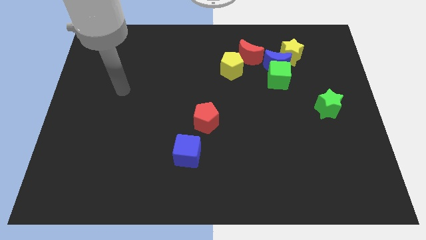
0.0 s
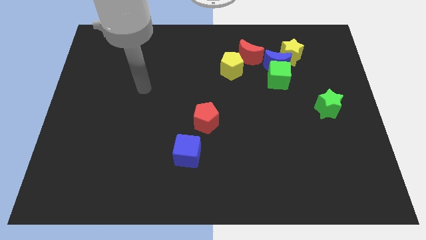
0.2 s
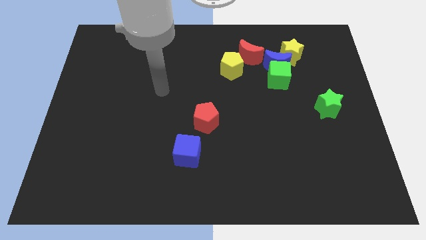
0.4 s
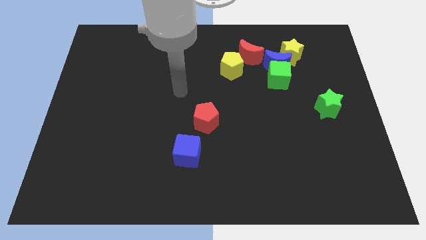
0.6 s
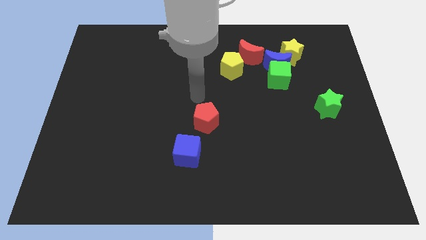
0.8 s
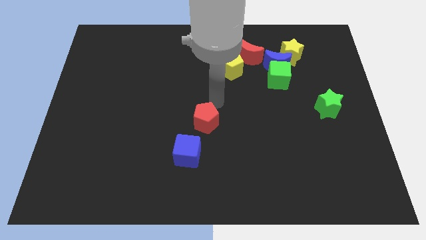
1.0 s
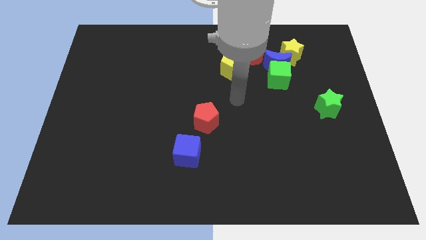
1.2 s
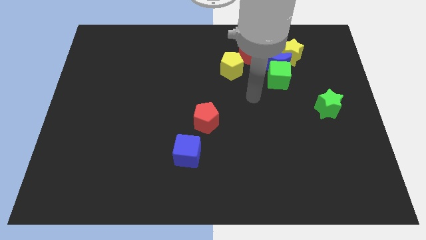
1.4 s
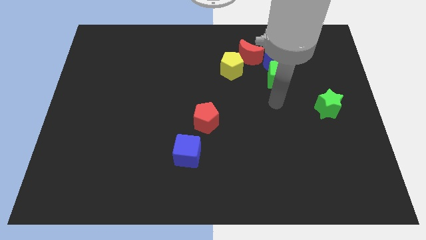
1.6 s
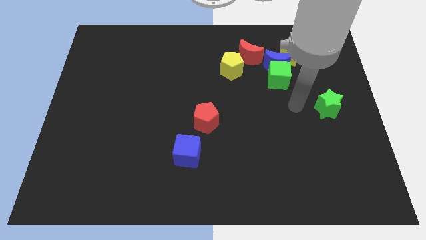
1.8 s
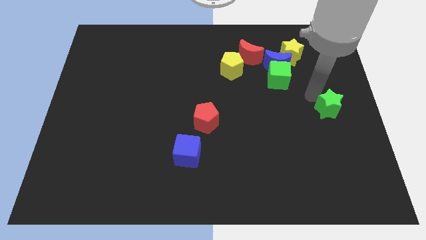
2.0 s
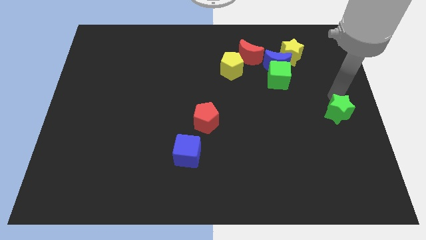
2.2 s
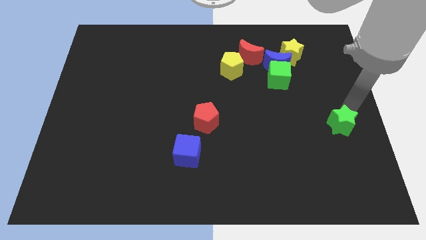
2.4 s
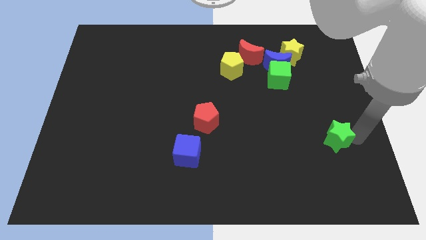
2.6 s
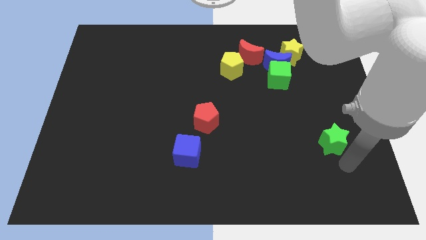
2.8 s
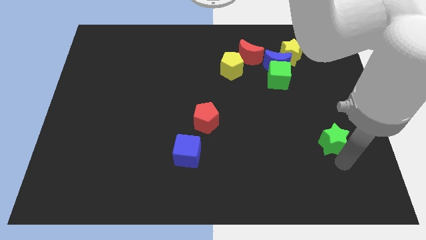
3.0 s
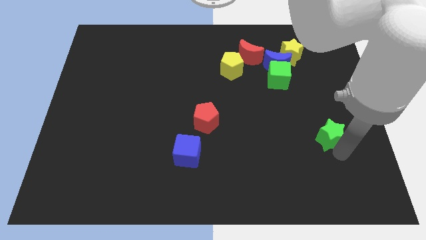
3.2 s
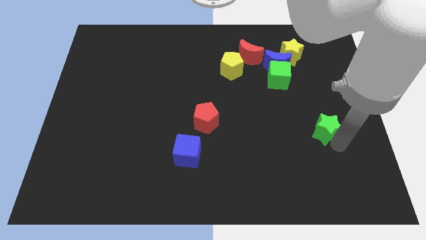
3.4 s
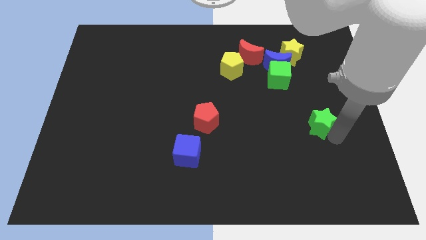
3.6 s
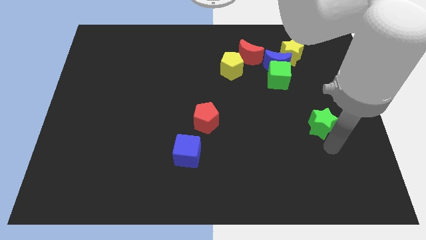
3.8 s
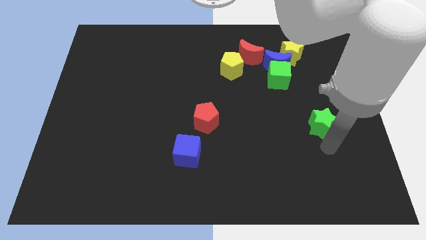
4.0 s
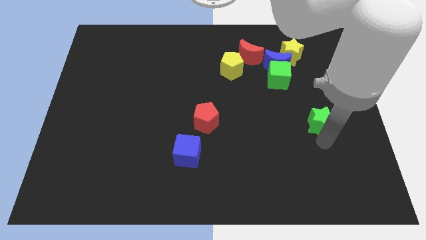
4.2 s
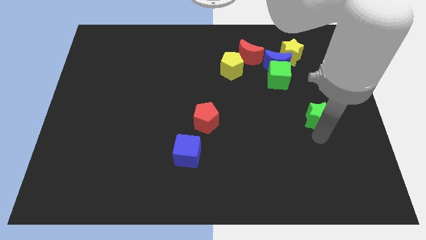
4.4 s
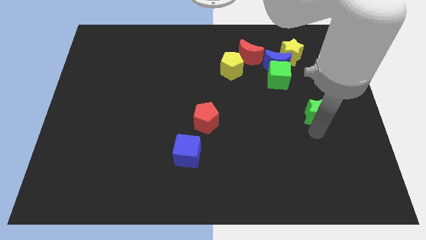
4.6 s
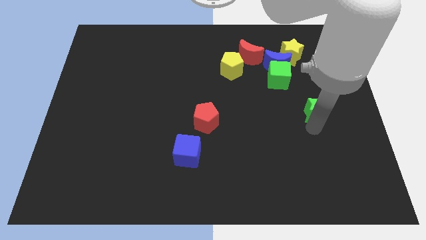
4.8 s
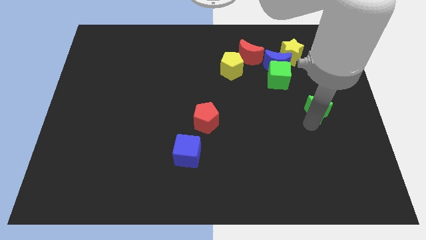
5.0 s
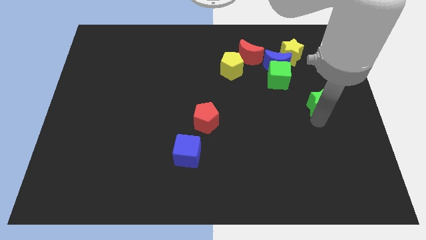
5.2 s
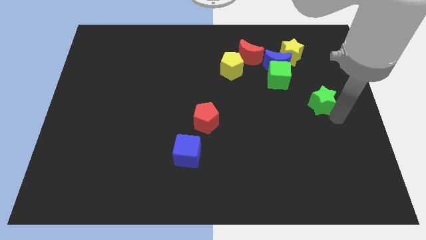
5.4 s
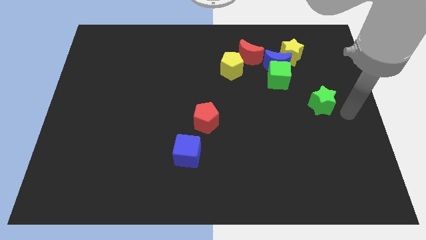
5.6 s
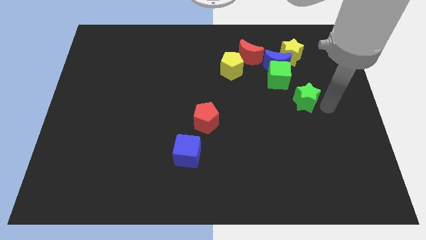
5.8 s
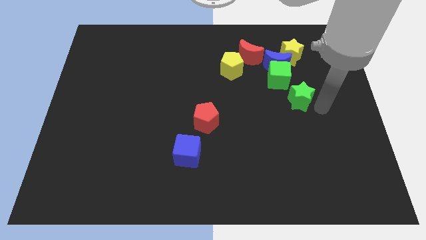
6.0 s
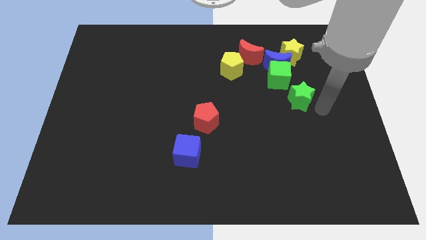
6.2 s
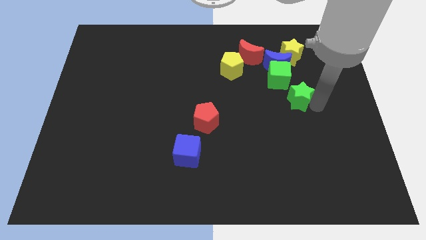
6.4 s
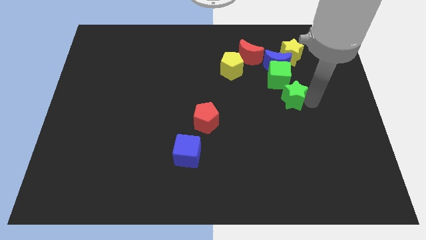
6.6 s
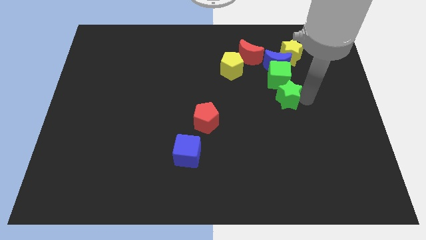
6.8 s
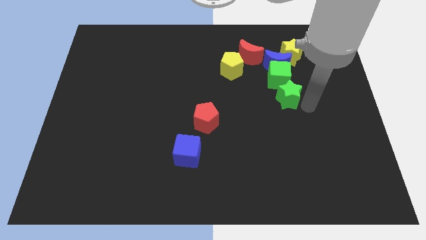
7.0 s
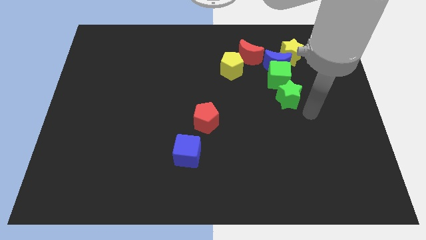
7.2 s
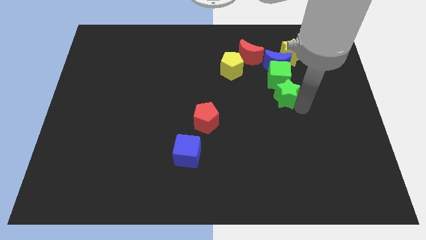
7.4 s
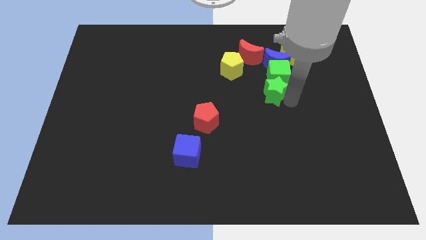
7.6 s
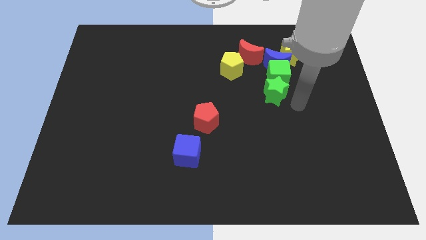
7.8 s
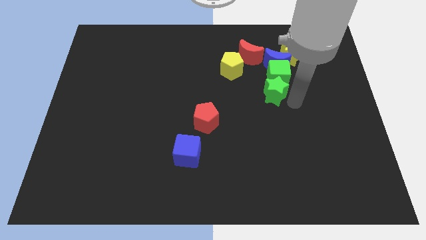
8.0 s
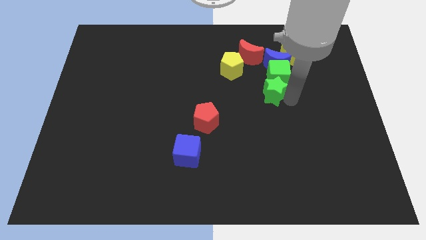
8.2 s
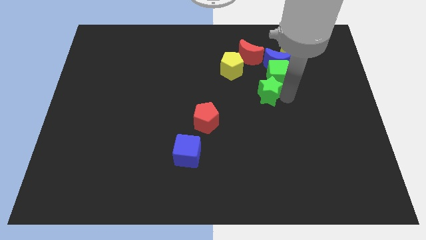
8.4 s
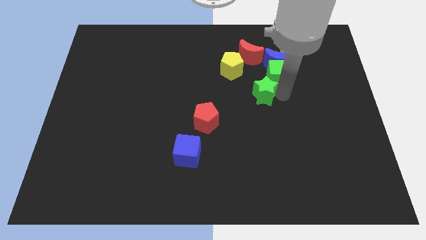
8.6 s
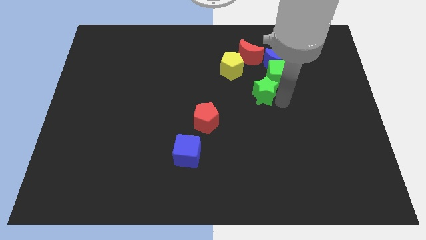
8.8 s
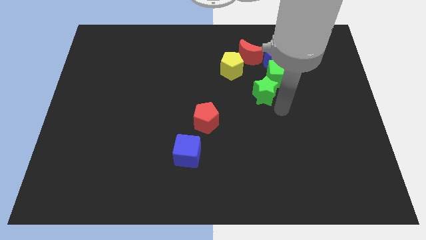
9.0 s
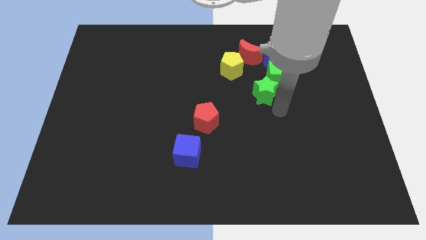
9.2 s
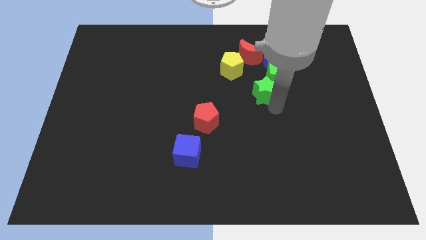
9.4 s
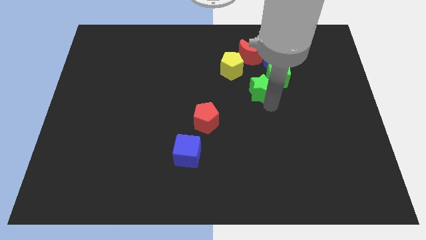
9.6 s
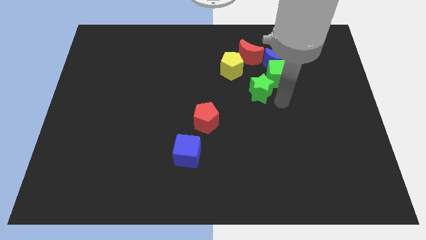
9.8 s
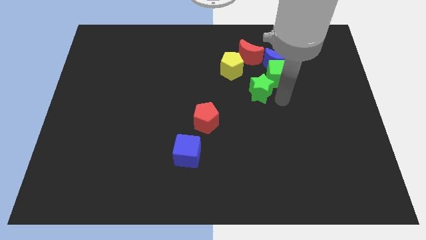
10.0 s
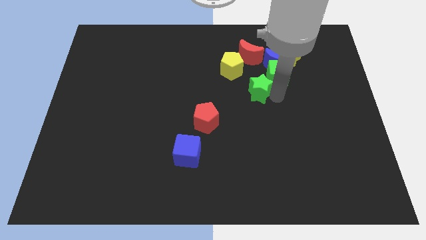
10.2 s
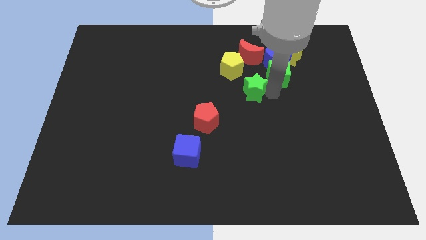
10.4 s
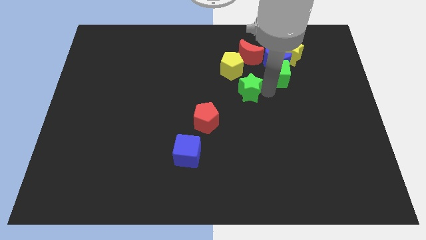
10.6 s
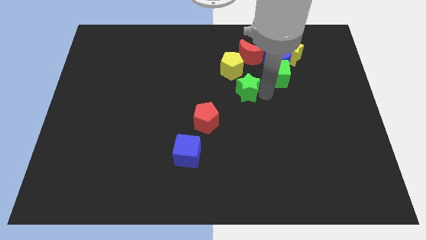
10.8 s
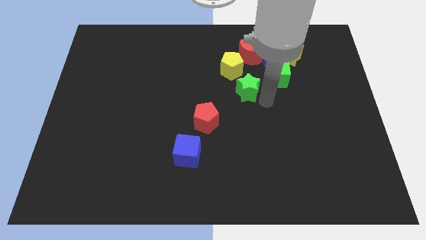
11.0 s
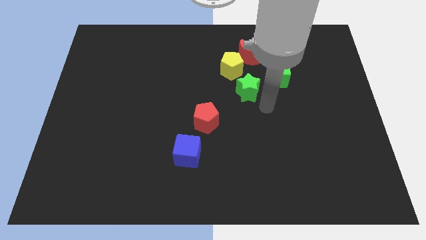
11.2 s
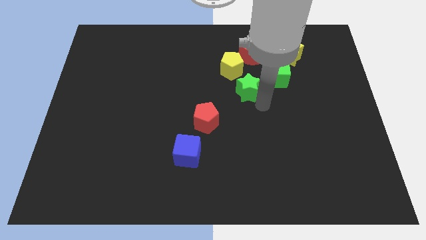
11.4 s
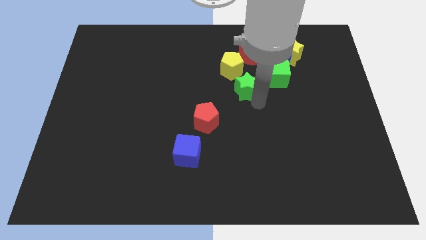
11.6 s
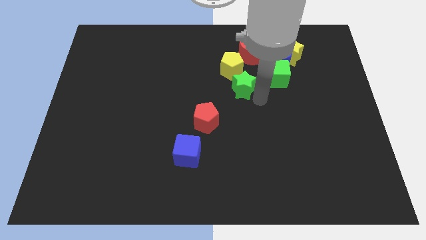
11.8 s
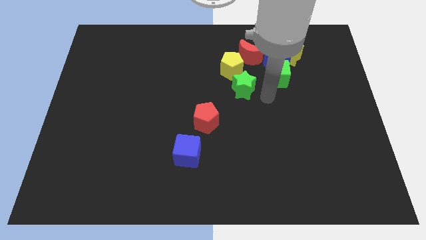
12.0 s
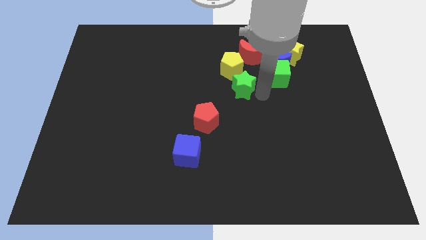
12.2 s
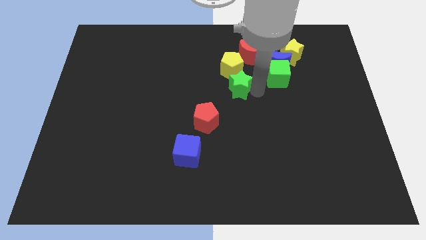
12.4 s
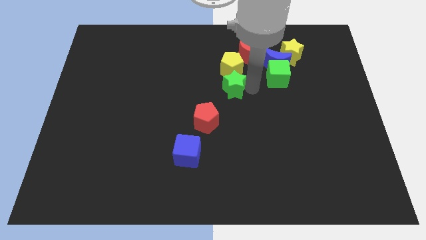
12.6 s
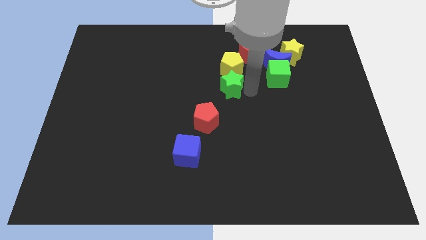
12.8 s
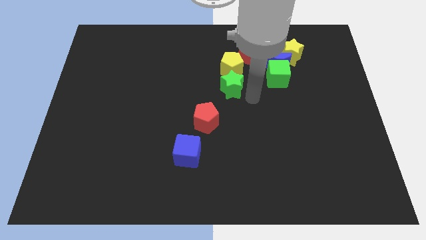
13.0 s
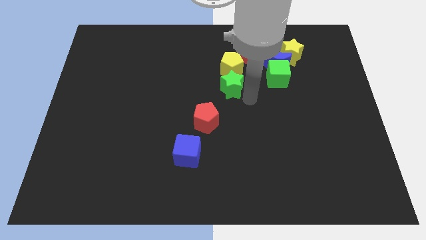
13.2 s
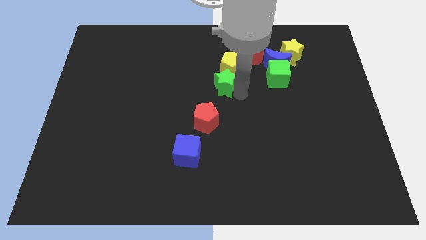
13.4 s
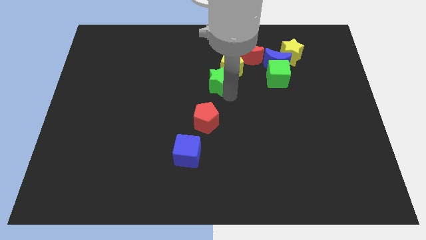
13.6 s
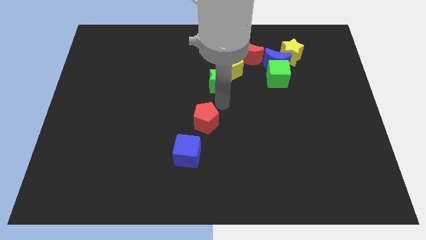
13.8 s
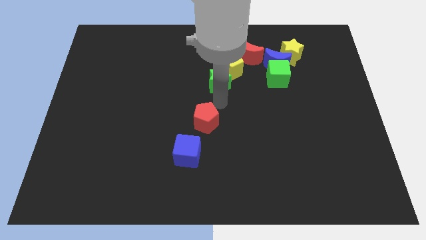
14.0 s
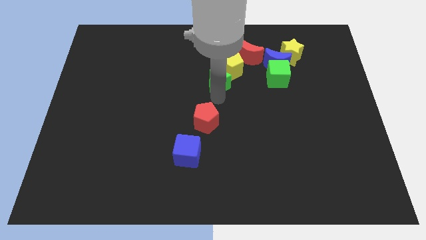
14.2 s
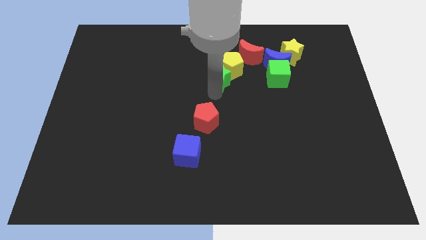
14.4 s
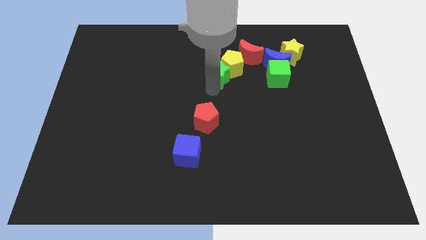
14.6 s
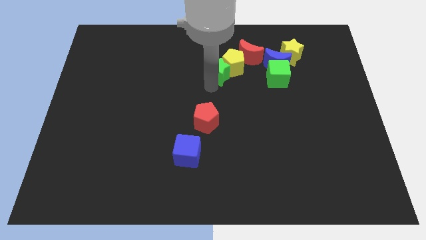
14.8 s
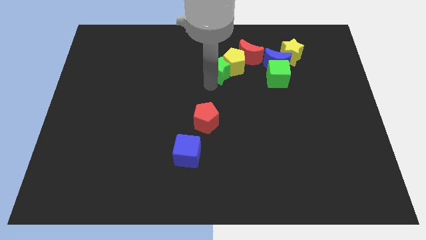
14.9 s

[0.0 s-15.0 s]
put the green star to the left side of the blue moon
